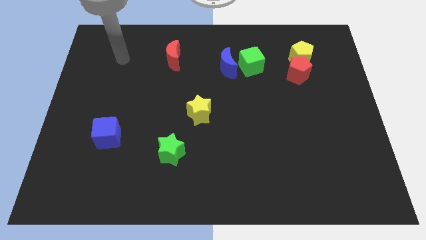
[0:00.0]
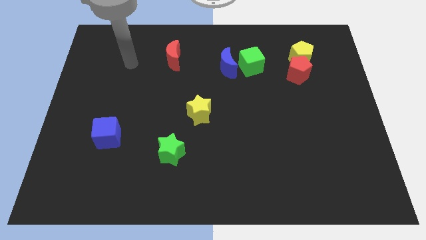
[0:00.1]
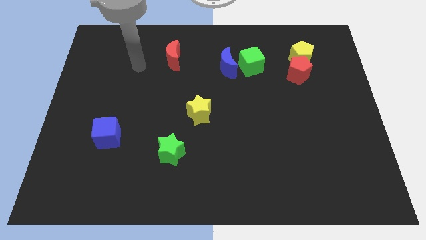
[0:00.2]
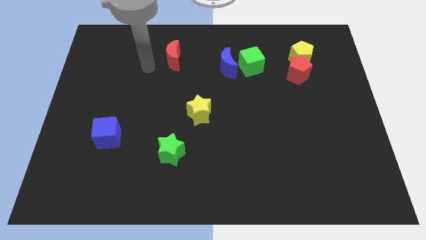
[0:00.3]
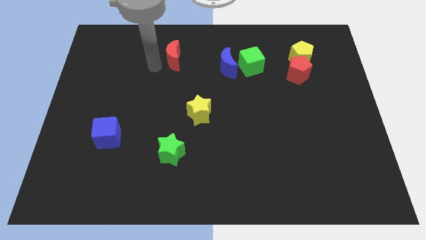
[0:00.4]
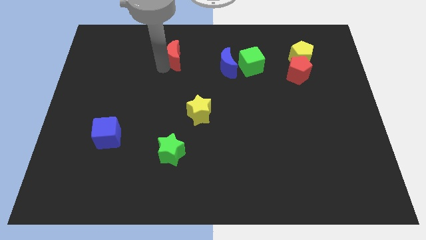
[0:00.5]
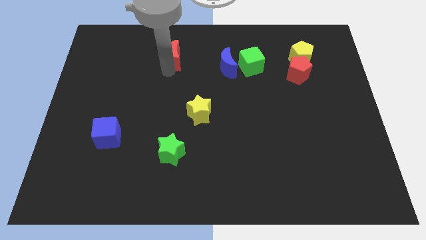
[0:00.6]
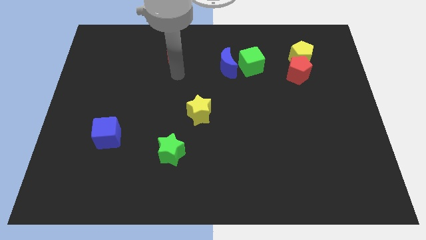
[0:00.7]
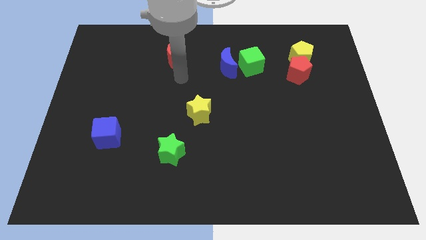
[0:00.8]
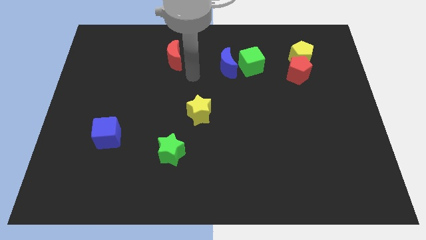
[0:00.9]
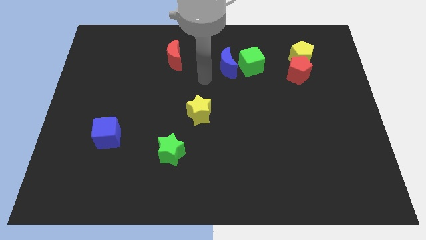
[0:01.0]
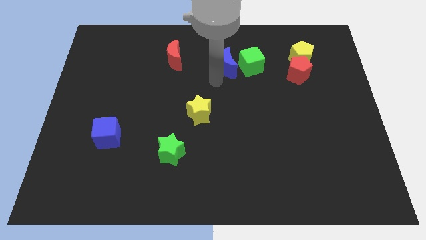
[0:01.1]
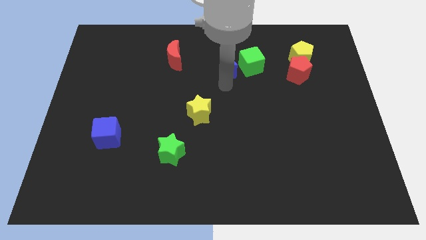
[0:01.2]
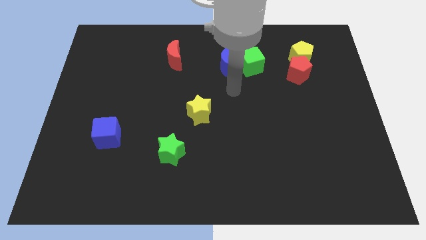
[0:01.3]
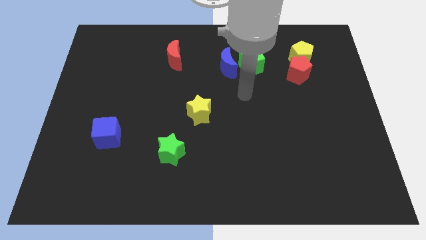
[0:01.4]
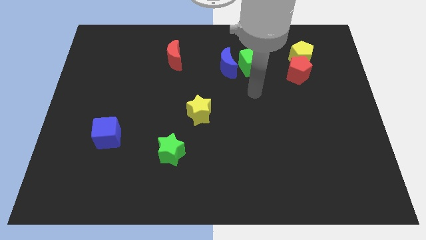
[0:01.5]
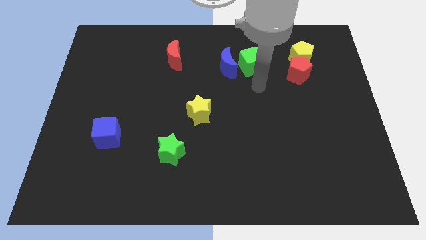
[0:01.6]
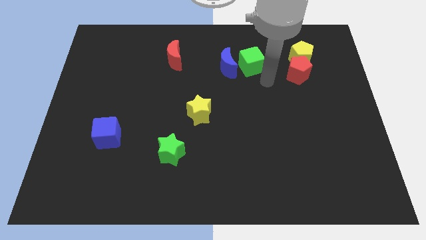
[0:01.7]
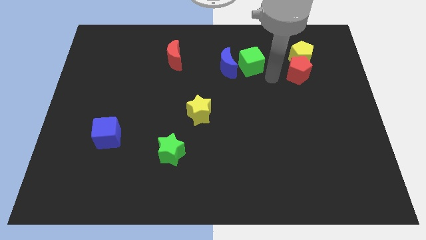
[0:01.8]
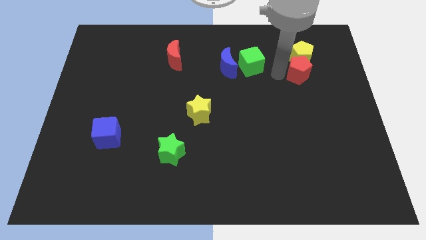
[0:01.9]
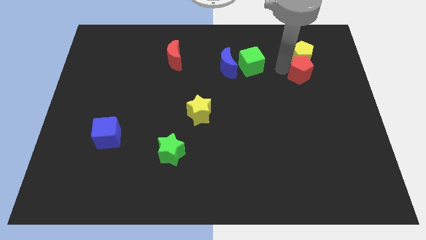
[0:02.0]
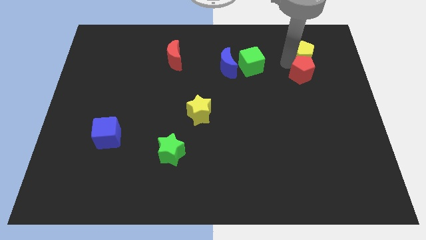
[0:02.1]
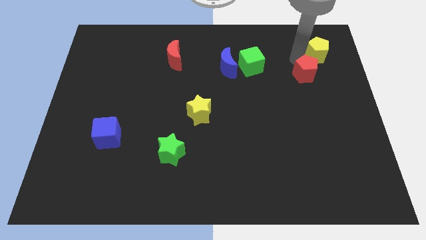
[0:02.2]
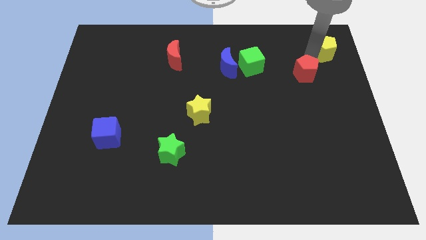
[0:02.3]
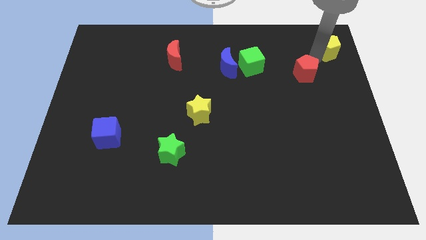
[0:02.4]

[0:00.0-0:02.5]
pull the red pentagon apart from the yellow pentagon

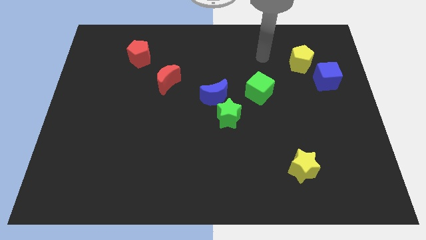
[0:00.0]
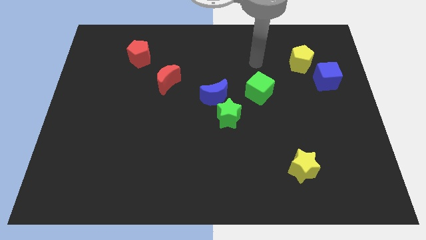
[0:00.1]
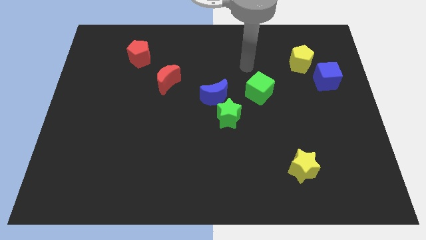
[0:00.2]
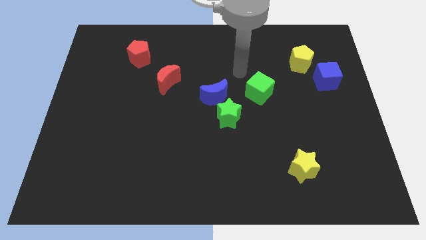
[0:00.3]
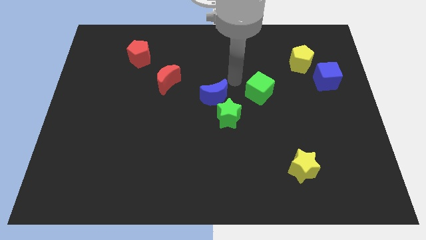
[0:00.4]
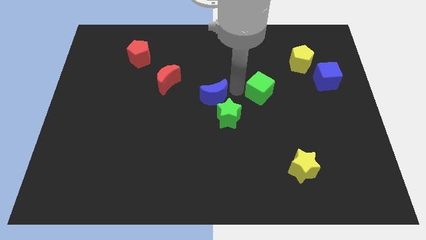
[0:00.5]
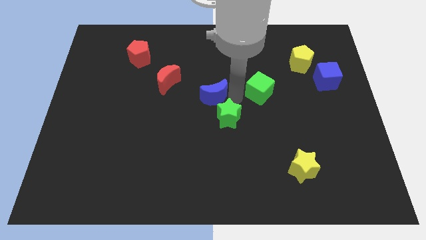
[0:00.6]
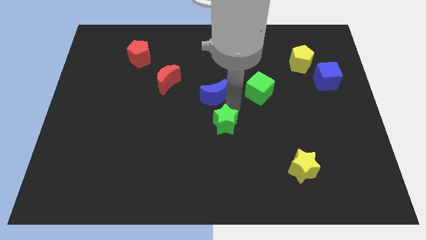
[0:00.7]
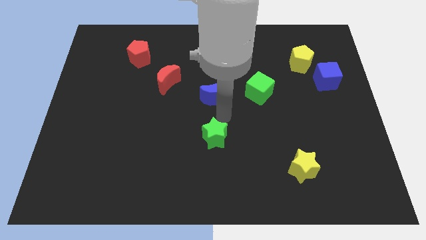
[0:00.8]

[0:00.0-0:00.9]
move the blue moon away from the green star

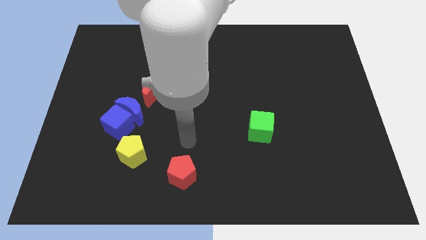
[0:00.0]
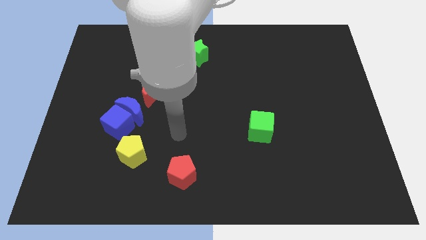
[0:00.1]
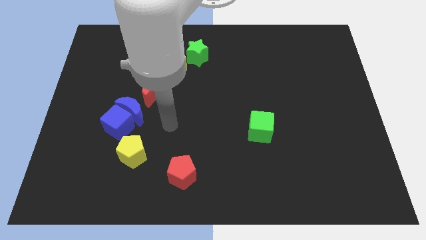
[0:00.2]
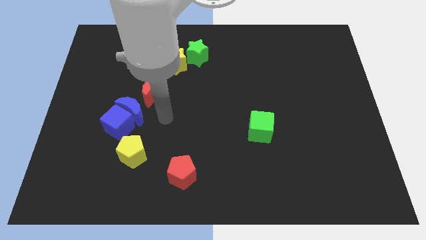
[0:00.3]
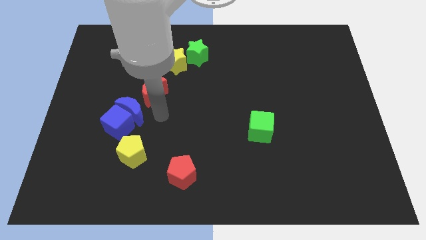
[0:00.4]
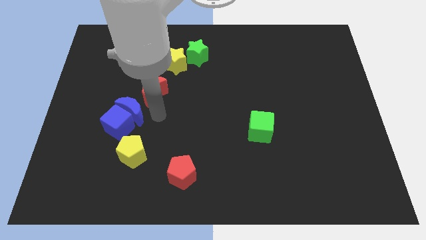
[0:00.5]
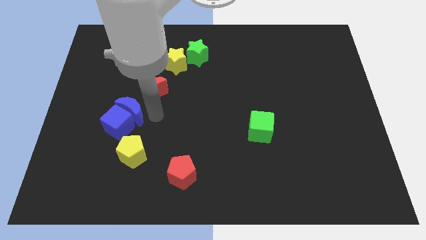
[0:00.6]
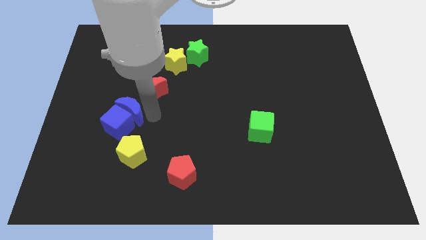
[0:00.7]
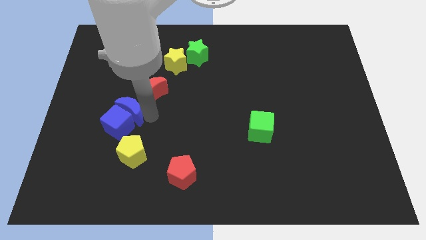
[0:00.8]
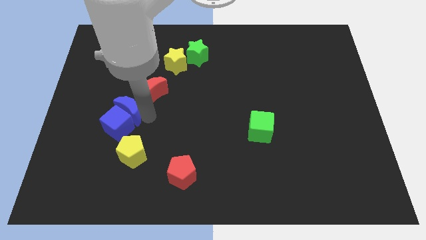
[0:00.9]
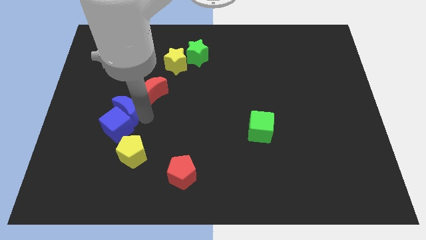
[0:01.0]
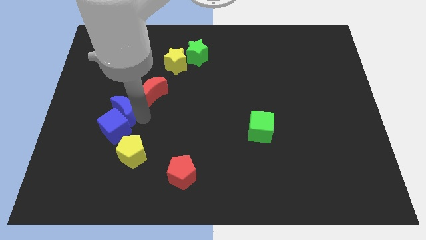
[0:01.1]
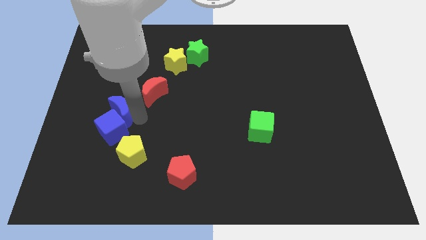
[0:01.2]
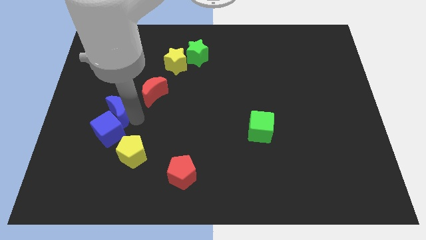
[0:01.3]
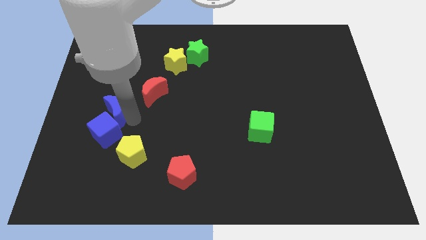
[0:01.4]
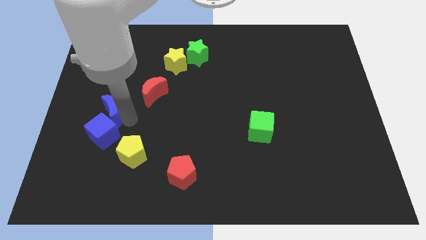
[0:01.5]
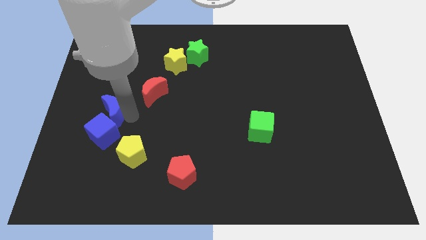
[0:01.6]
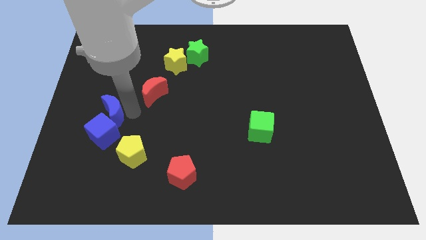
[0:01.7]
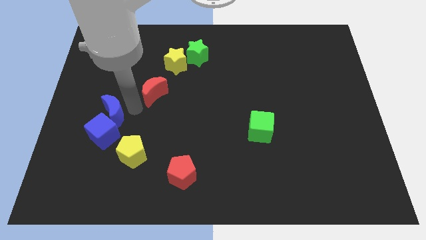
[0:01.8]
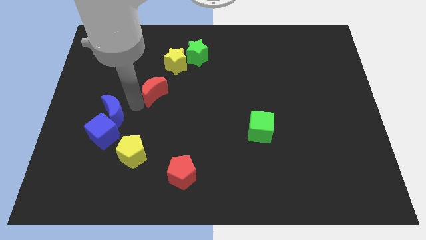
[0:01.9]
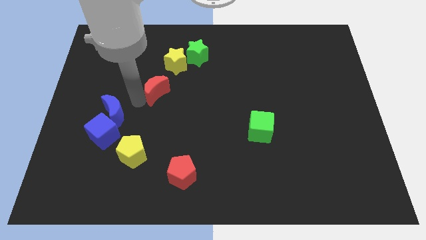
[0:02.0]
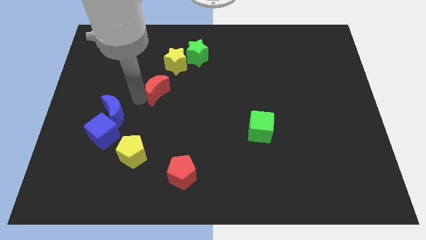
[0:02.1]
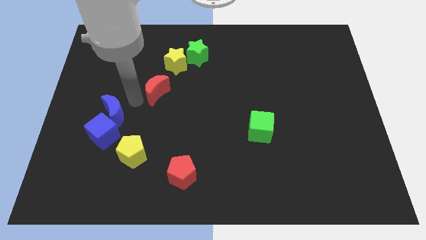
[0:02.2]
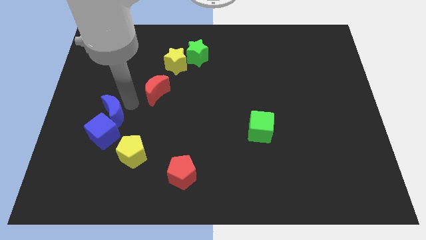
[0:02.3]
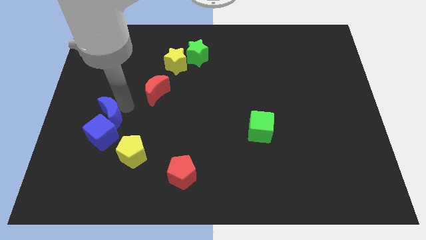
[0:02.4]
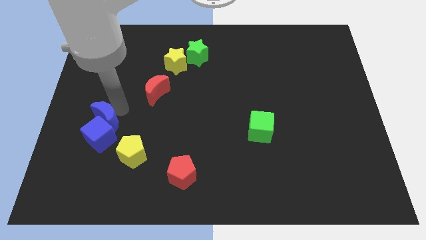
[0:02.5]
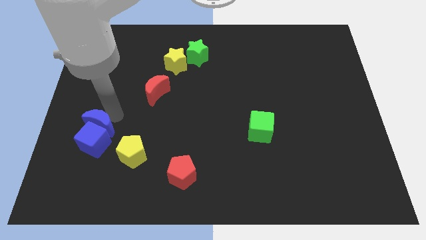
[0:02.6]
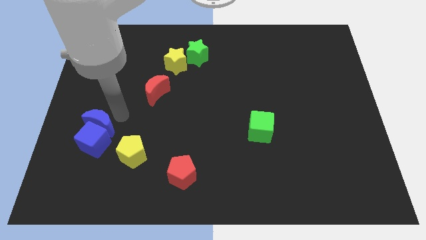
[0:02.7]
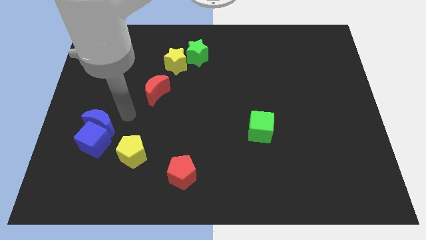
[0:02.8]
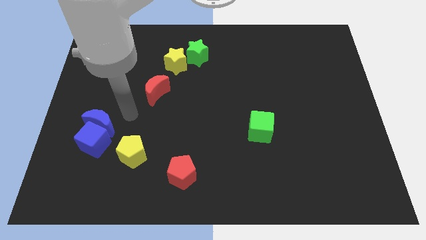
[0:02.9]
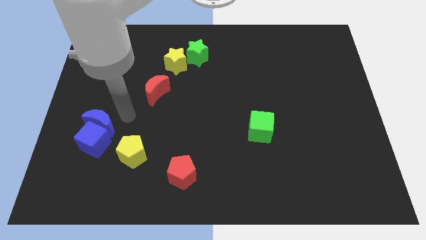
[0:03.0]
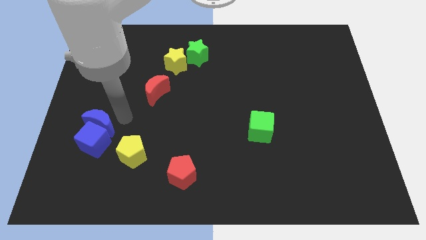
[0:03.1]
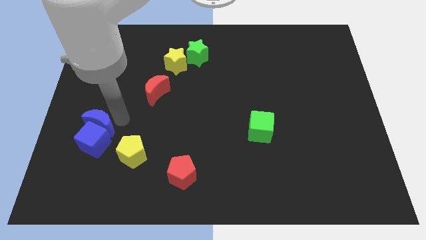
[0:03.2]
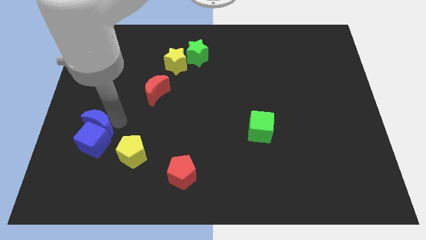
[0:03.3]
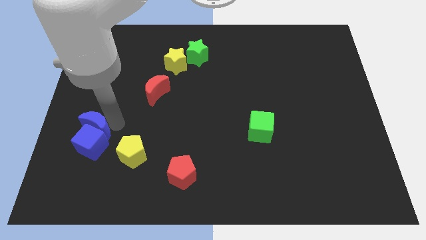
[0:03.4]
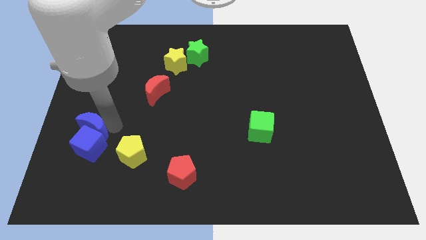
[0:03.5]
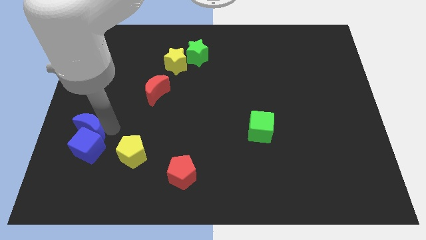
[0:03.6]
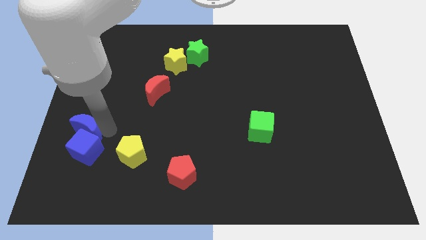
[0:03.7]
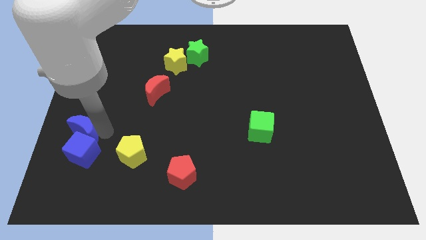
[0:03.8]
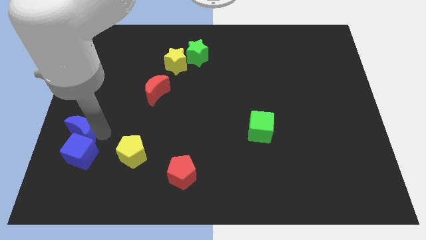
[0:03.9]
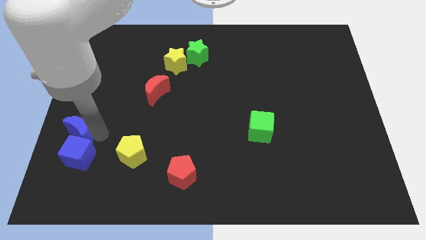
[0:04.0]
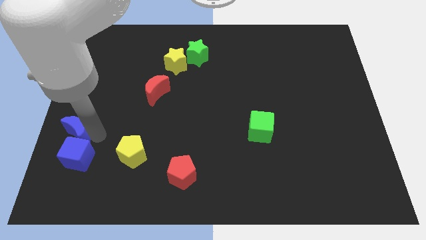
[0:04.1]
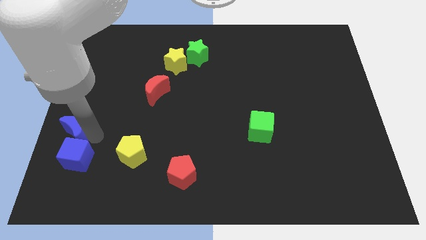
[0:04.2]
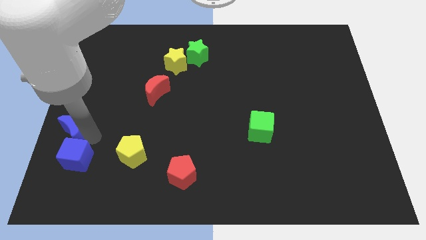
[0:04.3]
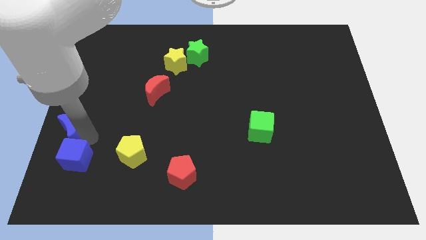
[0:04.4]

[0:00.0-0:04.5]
pull the blue moon apart from the blue cube and red moon

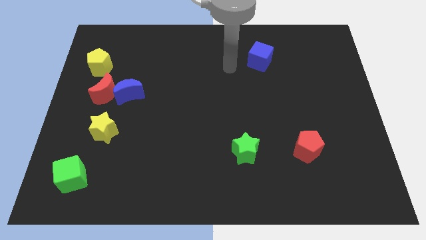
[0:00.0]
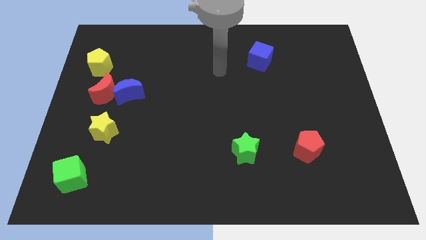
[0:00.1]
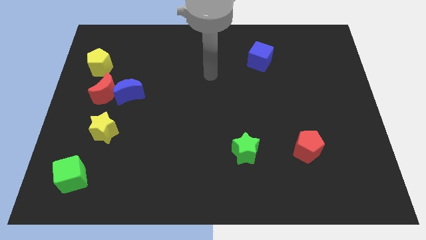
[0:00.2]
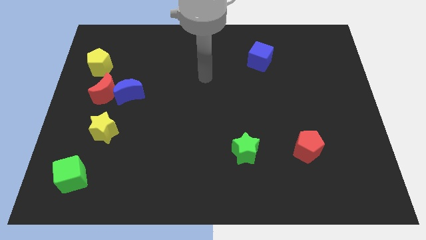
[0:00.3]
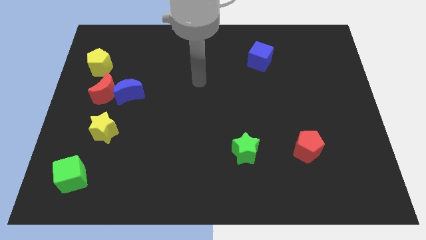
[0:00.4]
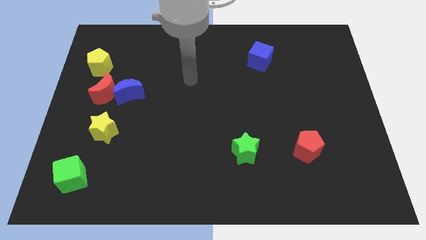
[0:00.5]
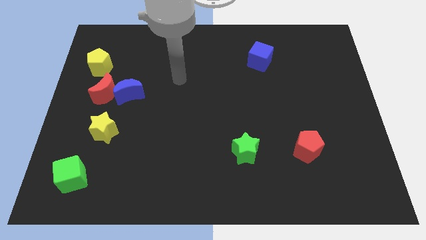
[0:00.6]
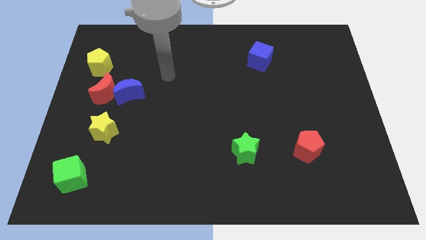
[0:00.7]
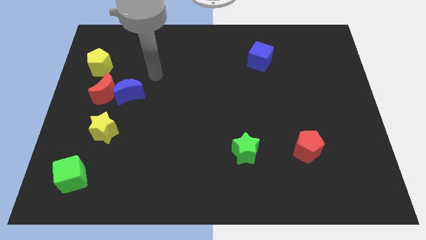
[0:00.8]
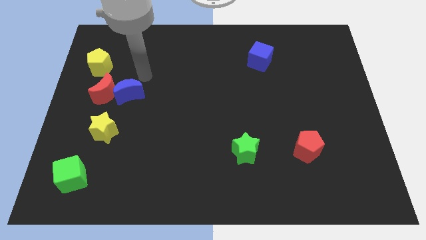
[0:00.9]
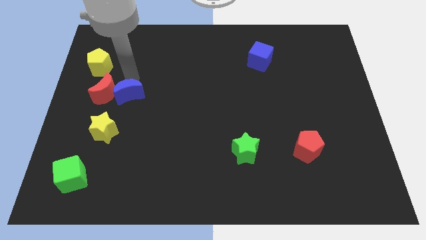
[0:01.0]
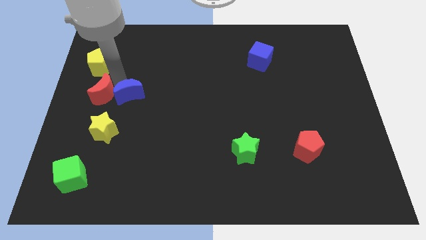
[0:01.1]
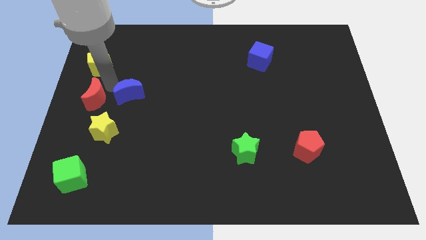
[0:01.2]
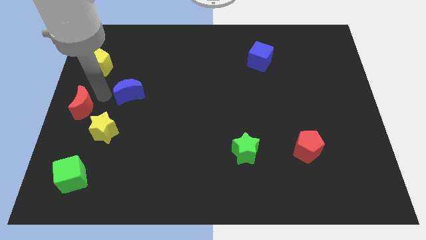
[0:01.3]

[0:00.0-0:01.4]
separate the blue moon from the red moon
